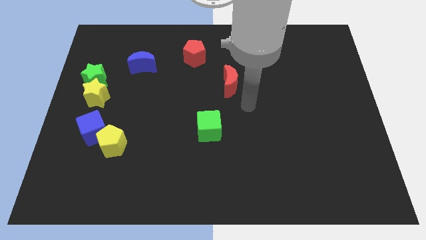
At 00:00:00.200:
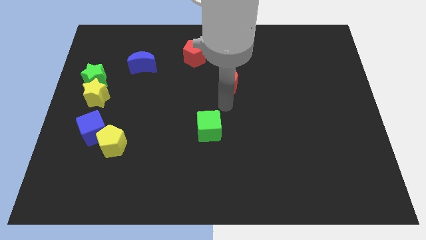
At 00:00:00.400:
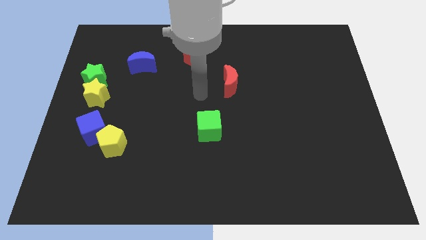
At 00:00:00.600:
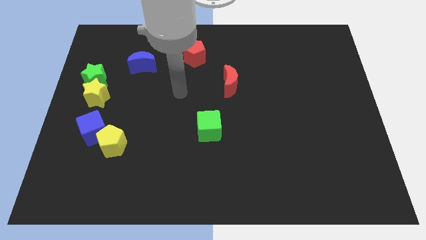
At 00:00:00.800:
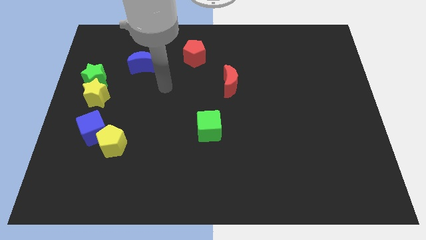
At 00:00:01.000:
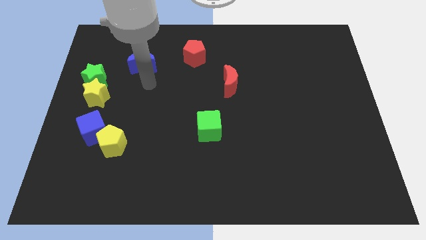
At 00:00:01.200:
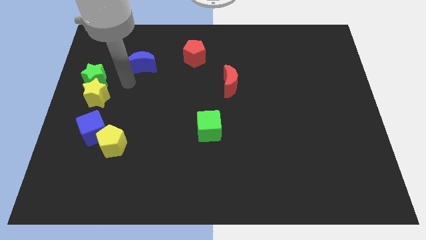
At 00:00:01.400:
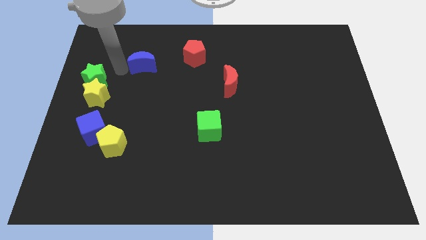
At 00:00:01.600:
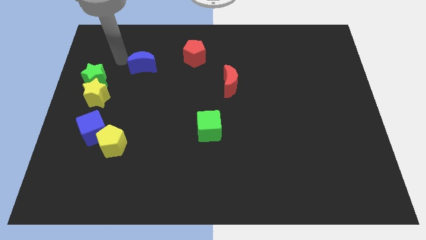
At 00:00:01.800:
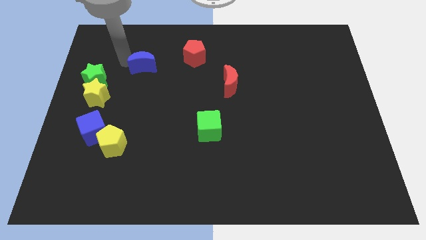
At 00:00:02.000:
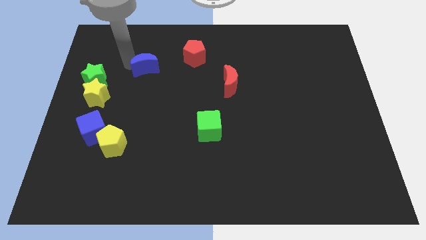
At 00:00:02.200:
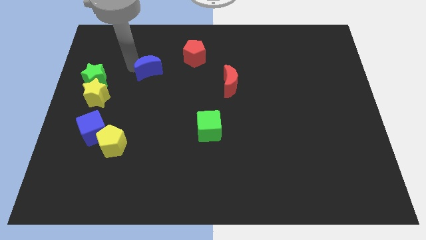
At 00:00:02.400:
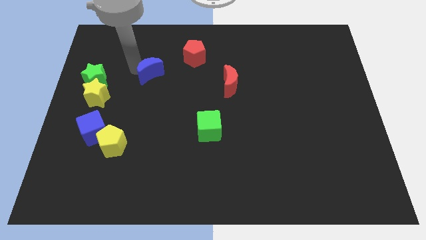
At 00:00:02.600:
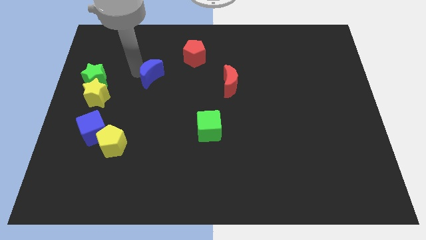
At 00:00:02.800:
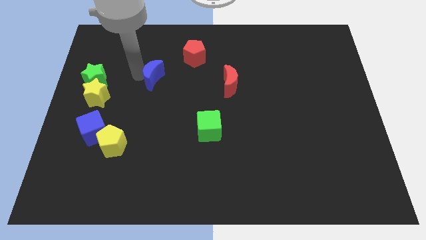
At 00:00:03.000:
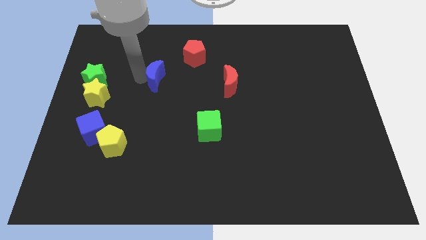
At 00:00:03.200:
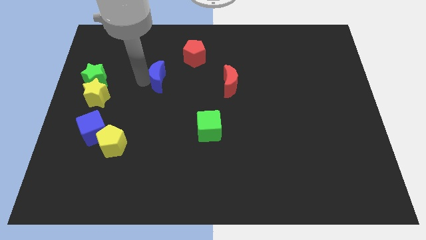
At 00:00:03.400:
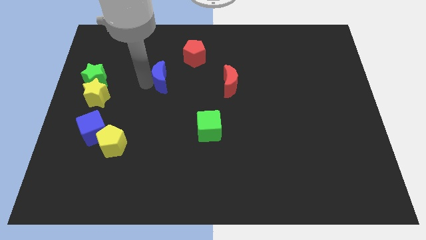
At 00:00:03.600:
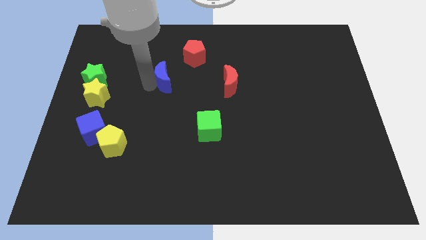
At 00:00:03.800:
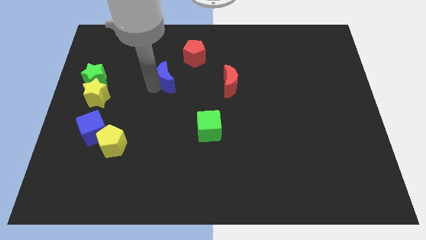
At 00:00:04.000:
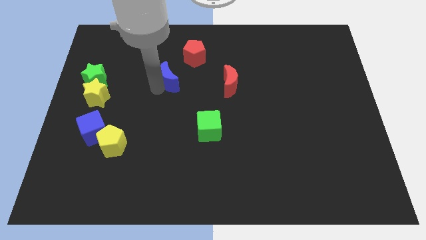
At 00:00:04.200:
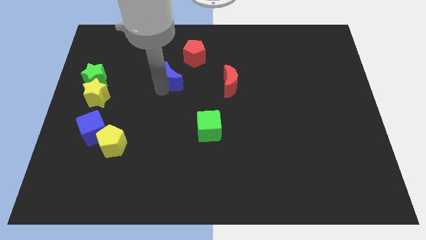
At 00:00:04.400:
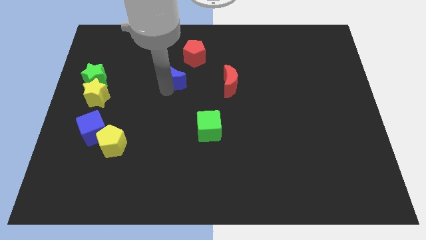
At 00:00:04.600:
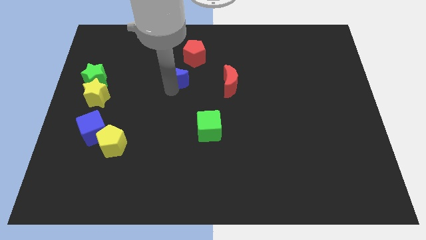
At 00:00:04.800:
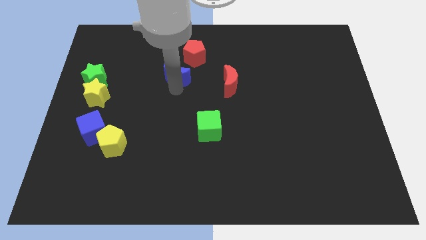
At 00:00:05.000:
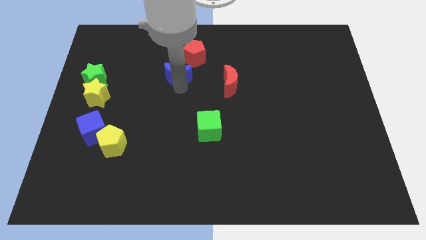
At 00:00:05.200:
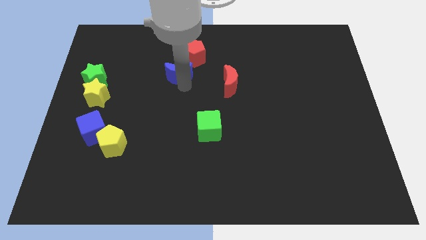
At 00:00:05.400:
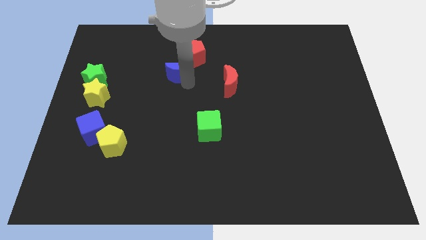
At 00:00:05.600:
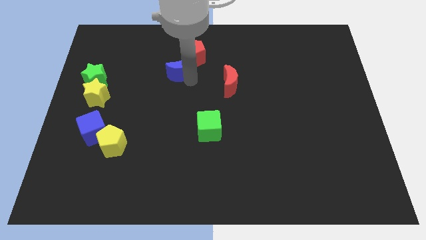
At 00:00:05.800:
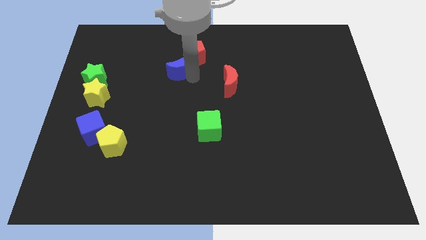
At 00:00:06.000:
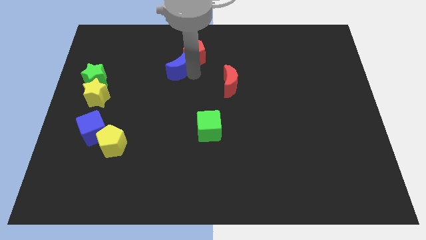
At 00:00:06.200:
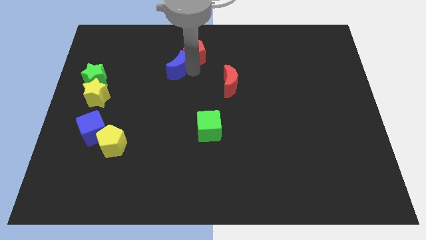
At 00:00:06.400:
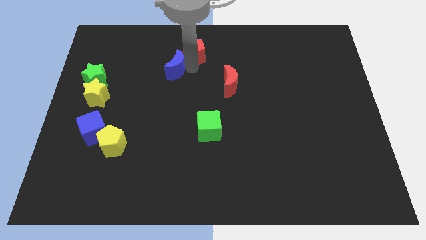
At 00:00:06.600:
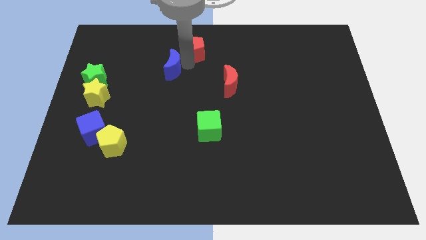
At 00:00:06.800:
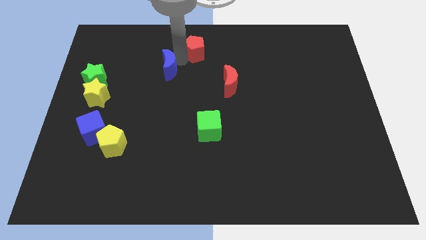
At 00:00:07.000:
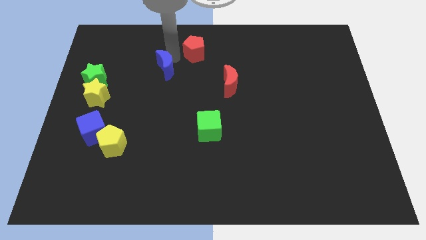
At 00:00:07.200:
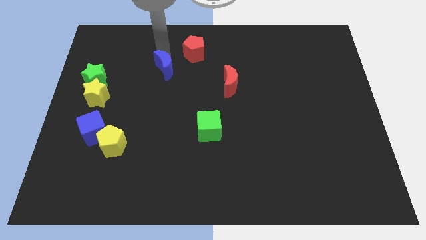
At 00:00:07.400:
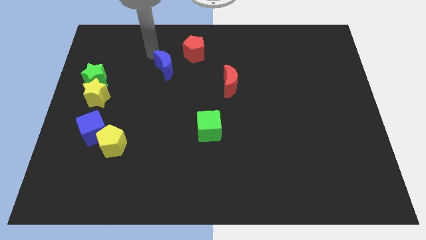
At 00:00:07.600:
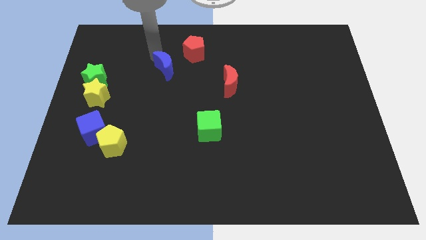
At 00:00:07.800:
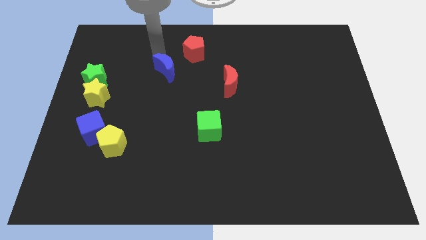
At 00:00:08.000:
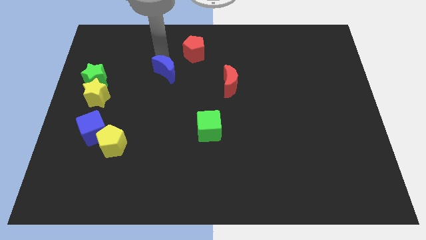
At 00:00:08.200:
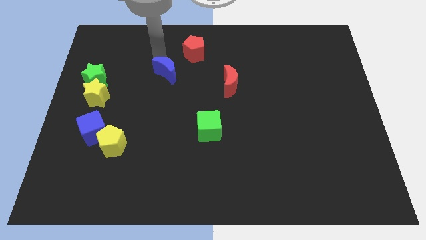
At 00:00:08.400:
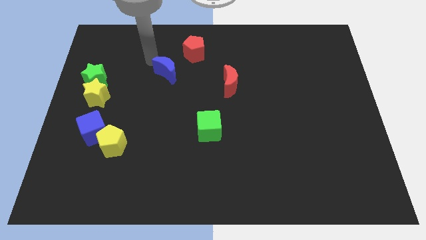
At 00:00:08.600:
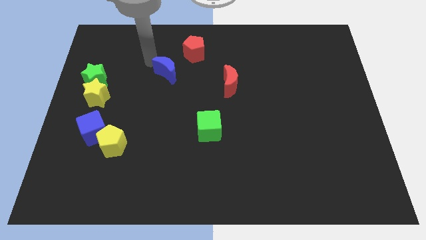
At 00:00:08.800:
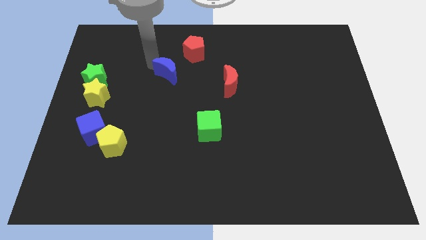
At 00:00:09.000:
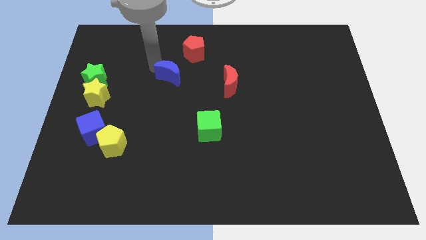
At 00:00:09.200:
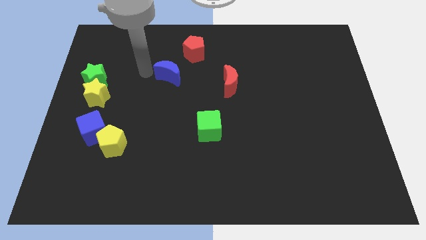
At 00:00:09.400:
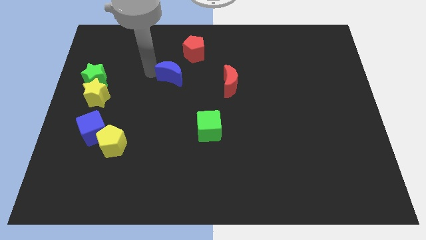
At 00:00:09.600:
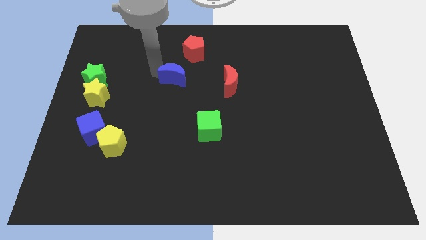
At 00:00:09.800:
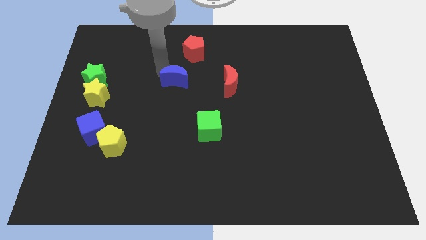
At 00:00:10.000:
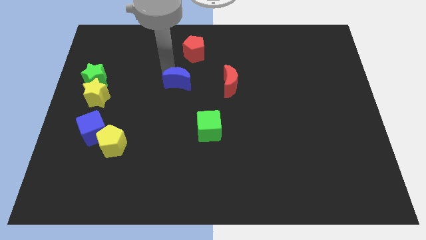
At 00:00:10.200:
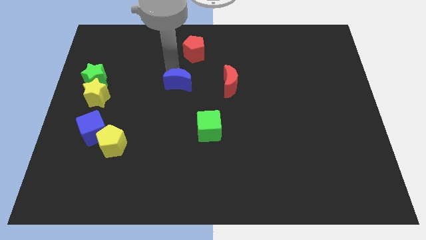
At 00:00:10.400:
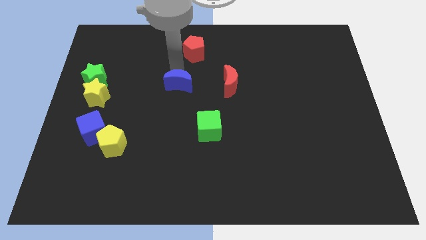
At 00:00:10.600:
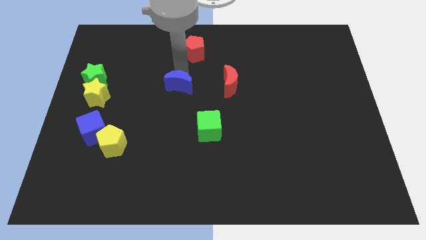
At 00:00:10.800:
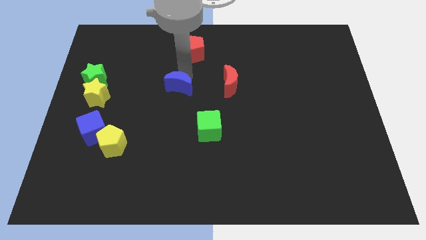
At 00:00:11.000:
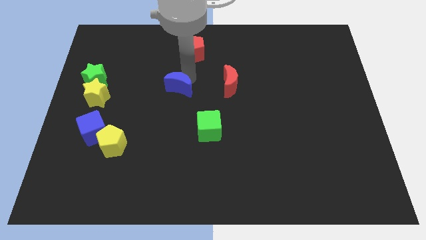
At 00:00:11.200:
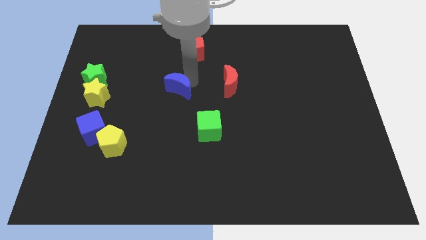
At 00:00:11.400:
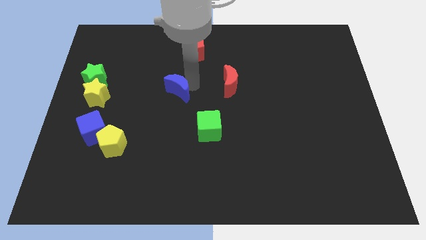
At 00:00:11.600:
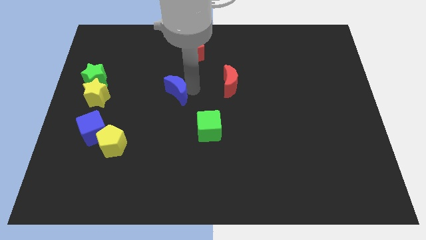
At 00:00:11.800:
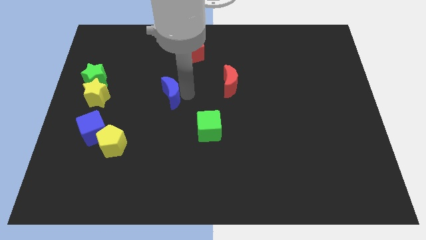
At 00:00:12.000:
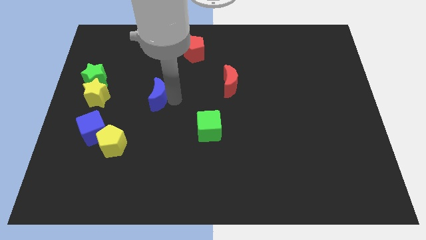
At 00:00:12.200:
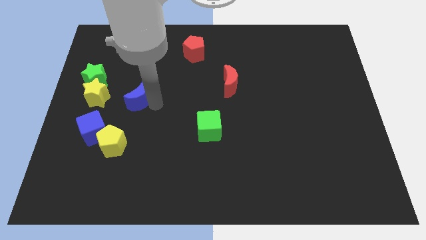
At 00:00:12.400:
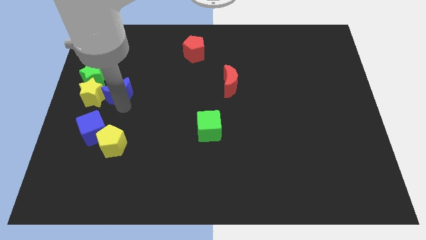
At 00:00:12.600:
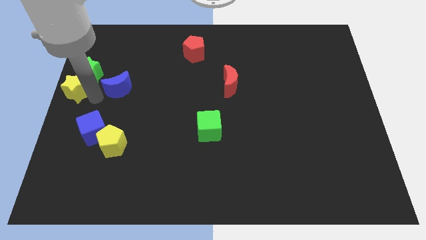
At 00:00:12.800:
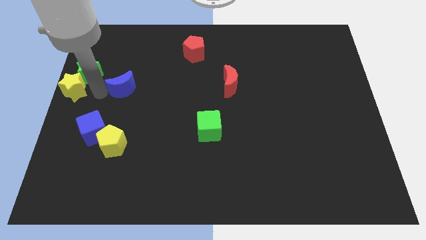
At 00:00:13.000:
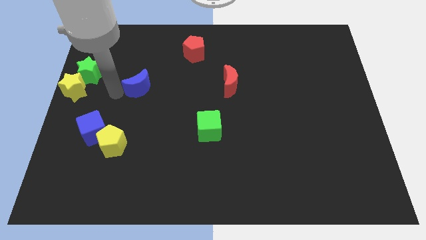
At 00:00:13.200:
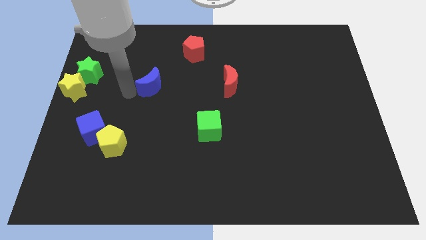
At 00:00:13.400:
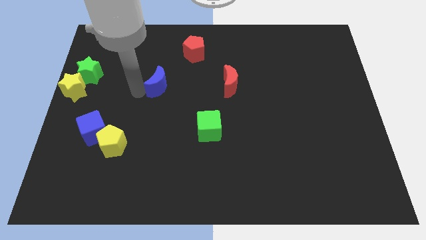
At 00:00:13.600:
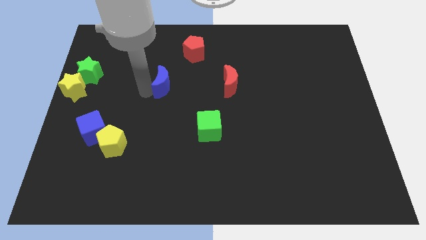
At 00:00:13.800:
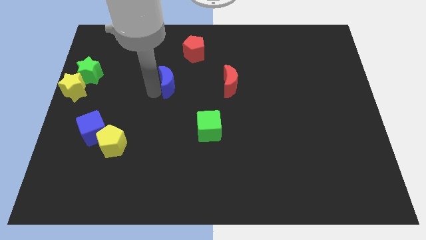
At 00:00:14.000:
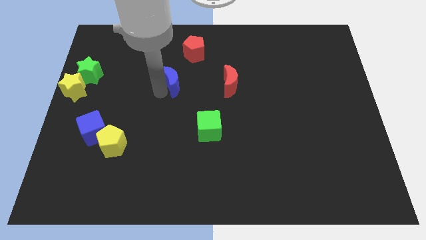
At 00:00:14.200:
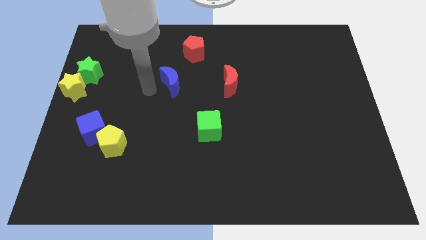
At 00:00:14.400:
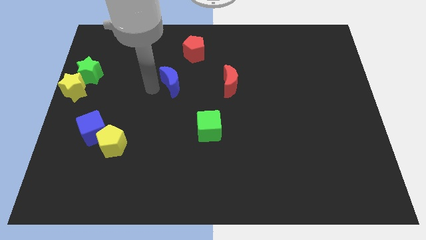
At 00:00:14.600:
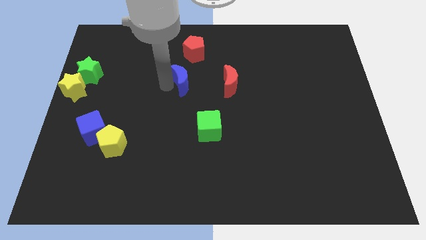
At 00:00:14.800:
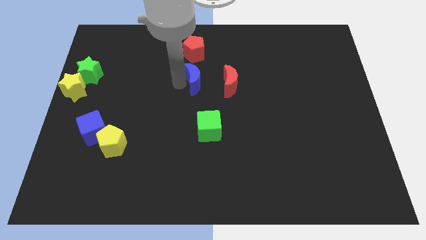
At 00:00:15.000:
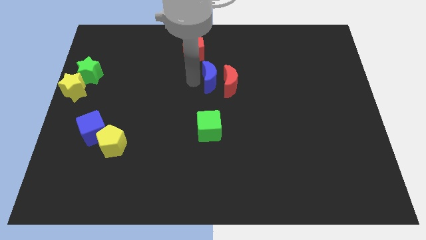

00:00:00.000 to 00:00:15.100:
put the blue moon close to the red moon
